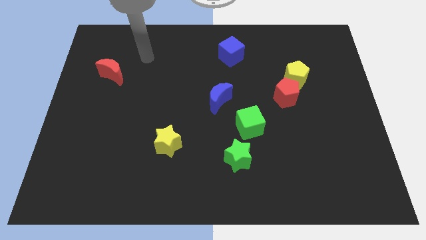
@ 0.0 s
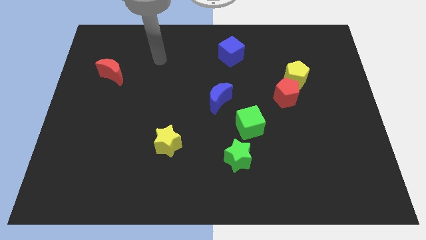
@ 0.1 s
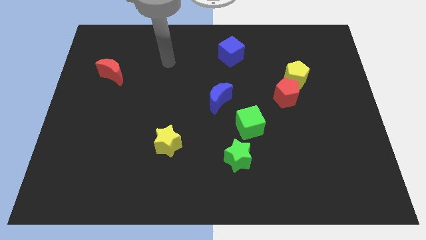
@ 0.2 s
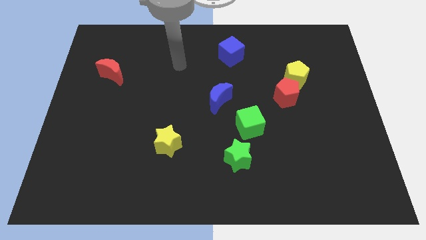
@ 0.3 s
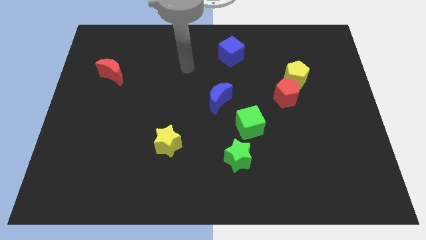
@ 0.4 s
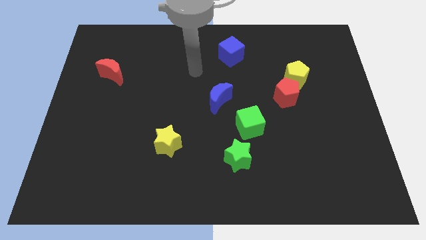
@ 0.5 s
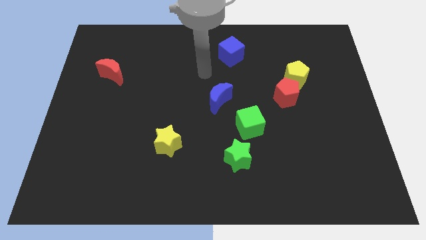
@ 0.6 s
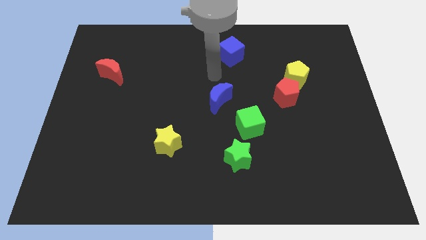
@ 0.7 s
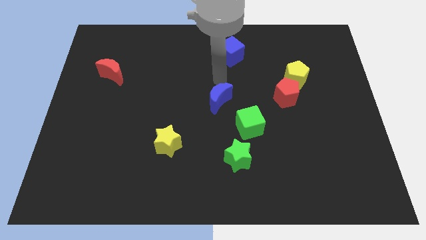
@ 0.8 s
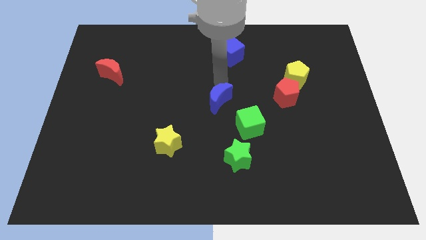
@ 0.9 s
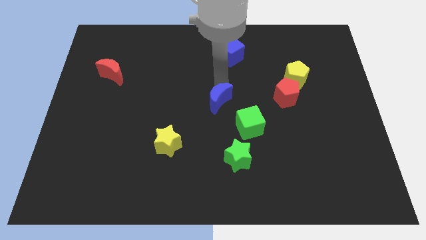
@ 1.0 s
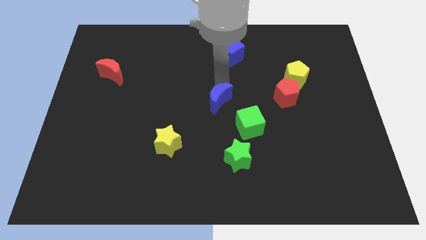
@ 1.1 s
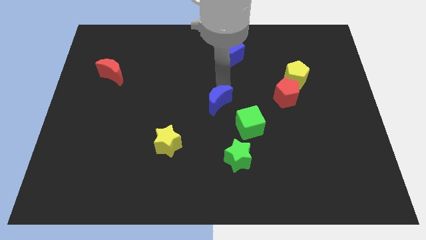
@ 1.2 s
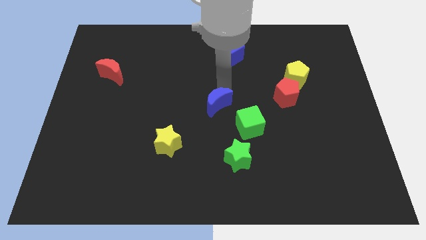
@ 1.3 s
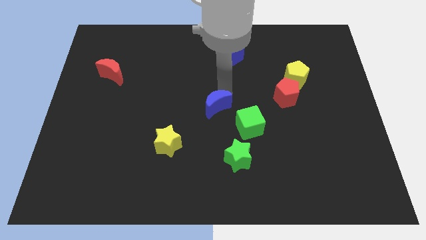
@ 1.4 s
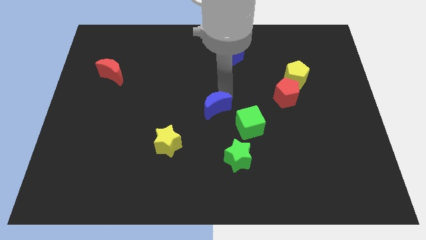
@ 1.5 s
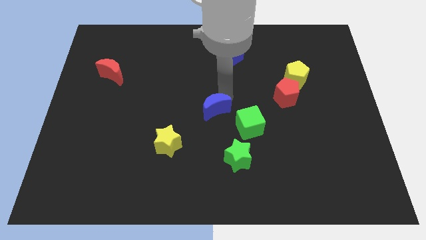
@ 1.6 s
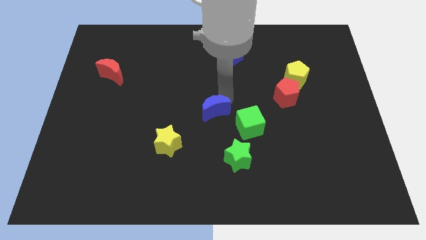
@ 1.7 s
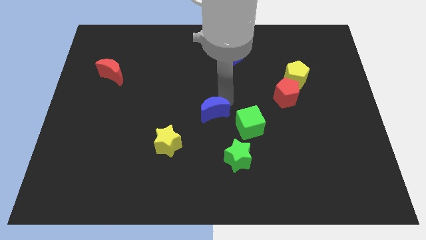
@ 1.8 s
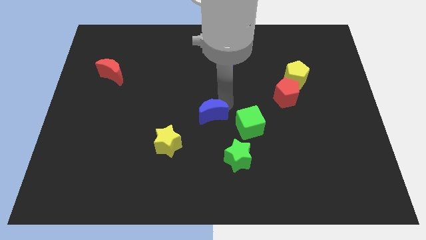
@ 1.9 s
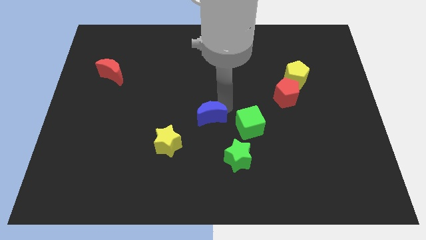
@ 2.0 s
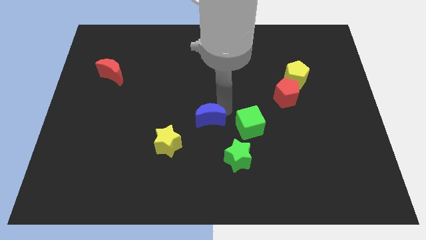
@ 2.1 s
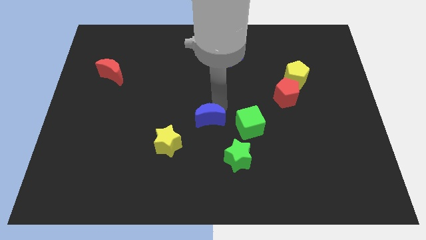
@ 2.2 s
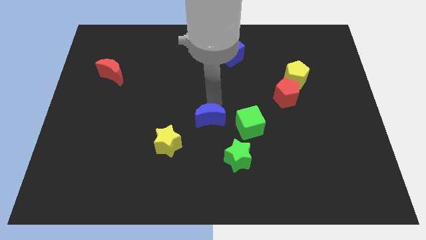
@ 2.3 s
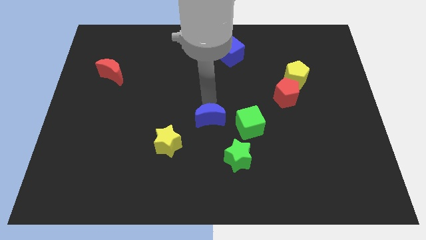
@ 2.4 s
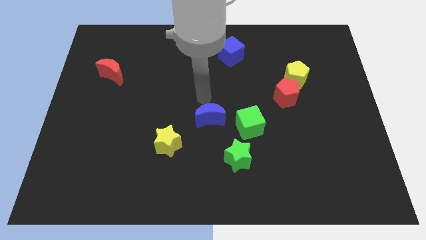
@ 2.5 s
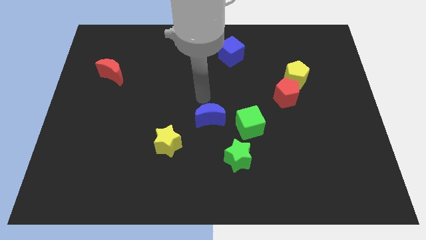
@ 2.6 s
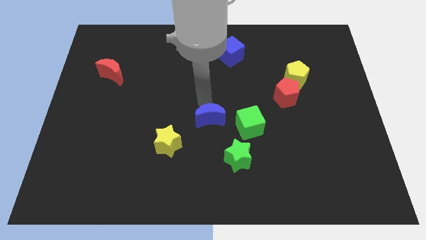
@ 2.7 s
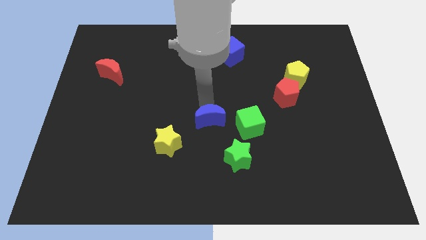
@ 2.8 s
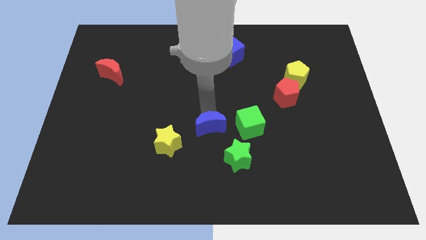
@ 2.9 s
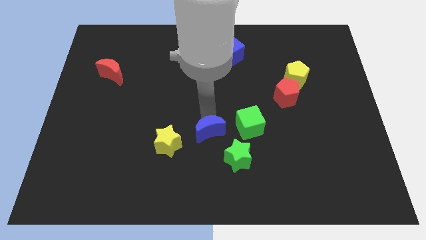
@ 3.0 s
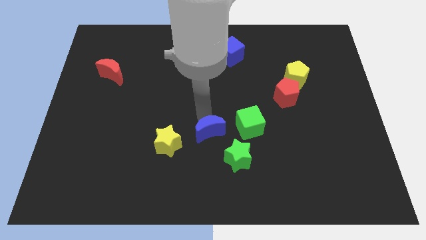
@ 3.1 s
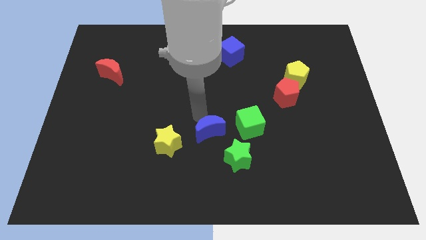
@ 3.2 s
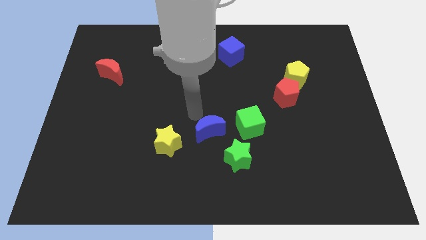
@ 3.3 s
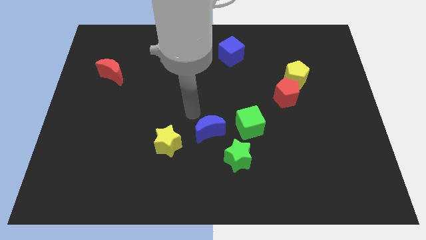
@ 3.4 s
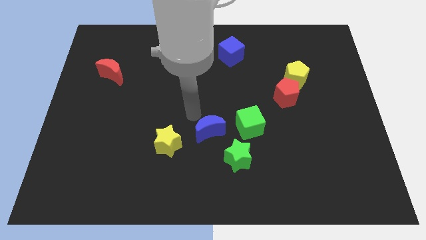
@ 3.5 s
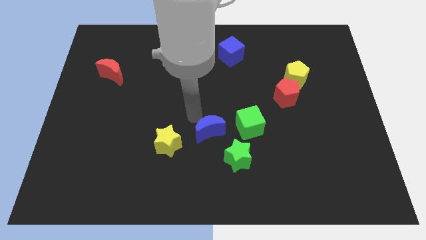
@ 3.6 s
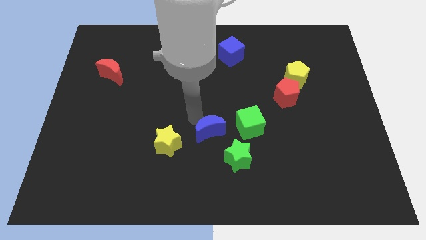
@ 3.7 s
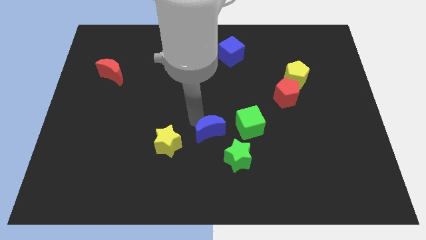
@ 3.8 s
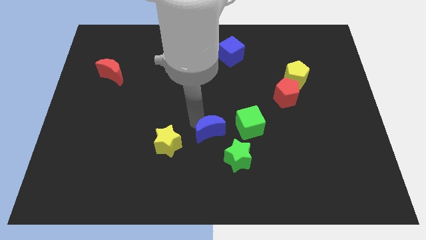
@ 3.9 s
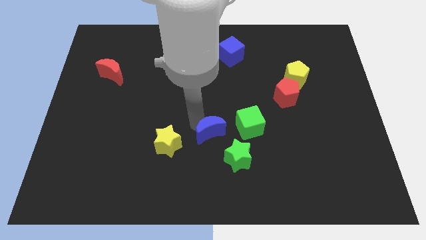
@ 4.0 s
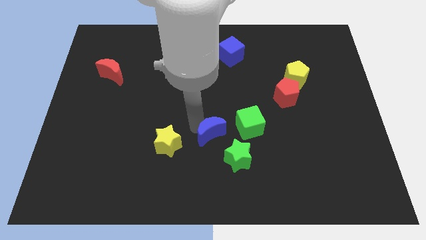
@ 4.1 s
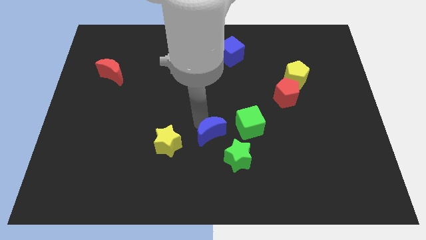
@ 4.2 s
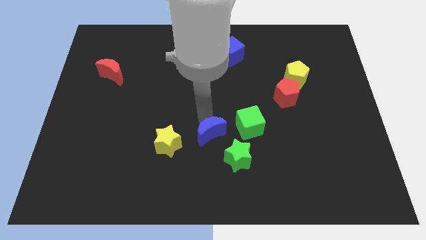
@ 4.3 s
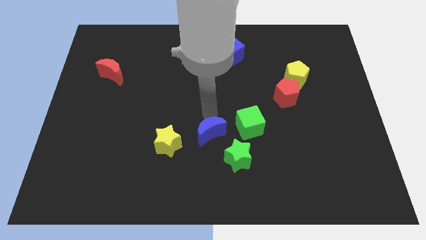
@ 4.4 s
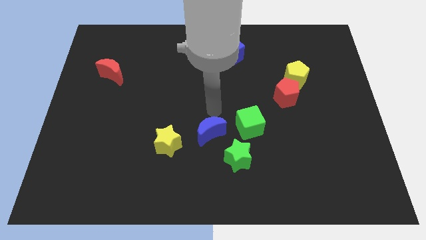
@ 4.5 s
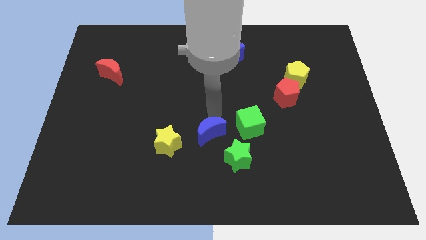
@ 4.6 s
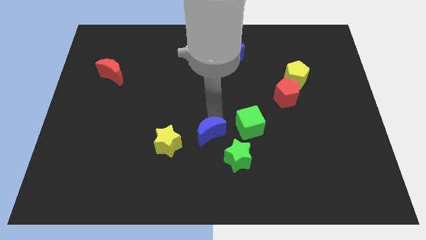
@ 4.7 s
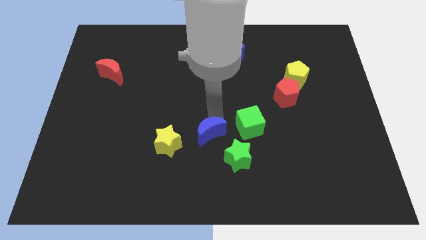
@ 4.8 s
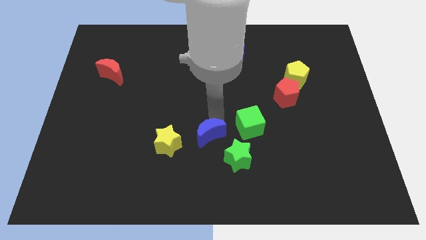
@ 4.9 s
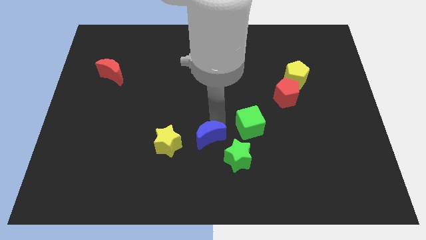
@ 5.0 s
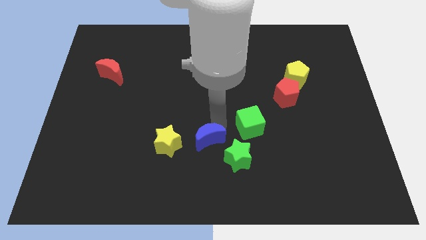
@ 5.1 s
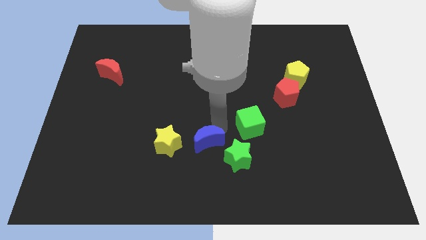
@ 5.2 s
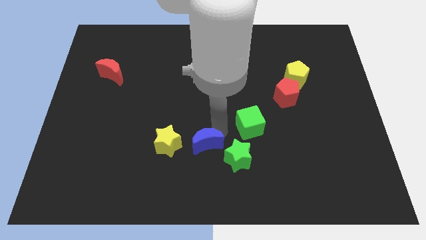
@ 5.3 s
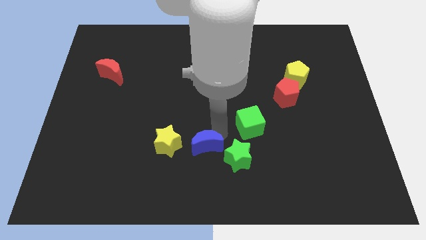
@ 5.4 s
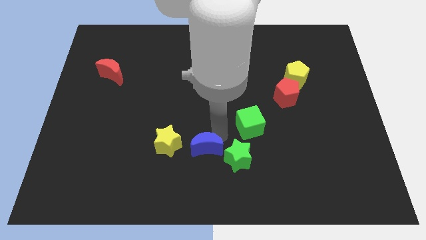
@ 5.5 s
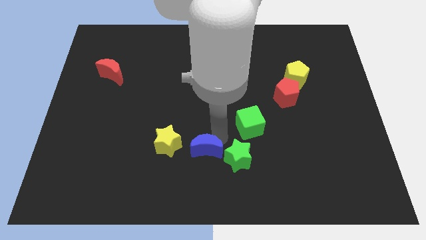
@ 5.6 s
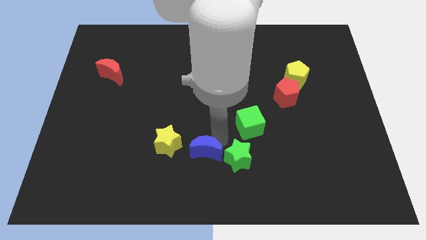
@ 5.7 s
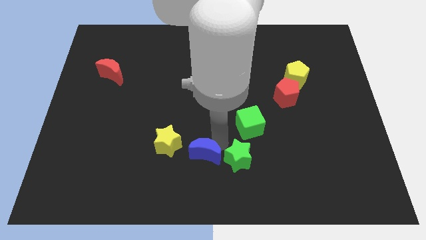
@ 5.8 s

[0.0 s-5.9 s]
put the blue moon to the bottom
